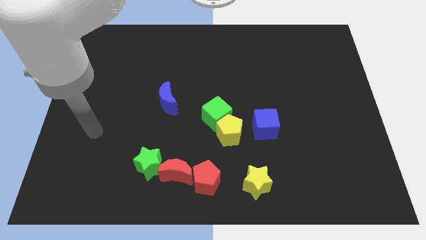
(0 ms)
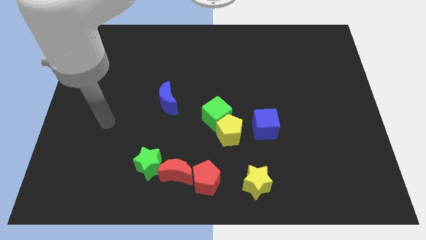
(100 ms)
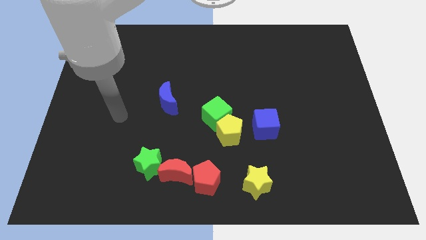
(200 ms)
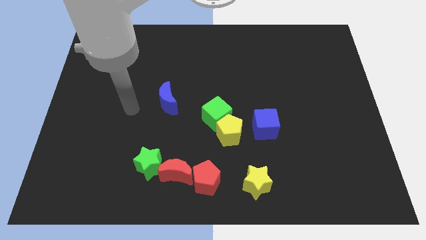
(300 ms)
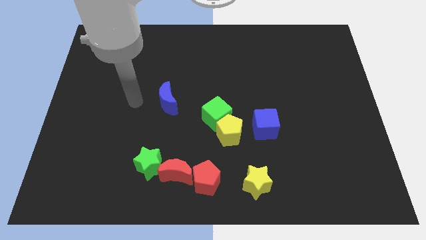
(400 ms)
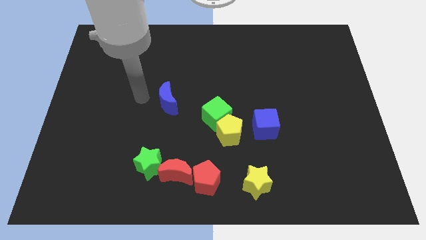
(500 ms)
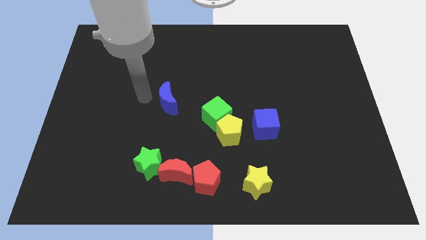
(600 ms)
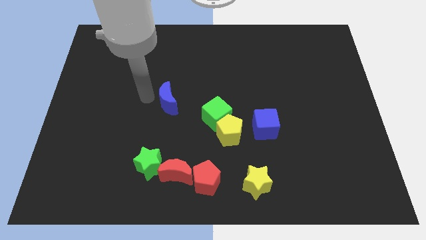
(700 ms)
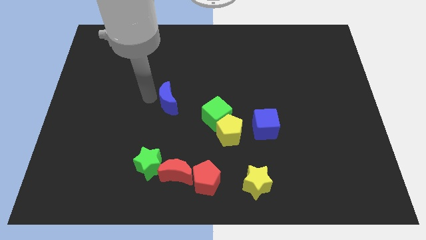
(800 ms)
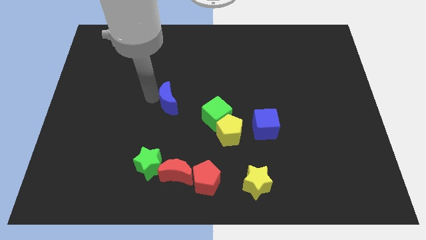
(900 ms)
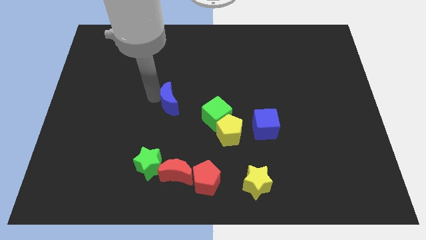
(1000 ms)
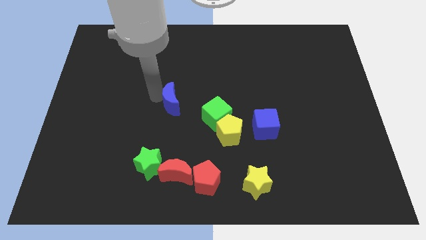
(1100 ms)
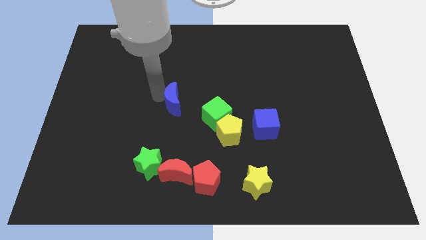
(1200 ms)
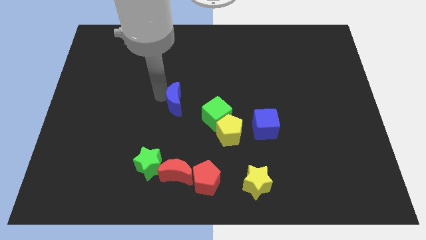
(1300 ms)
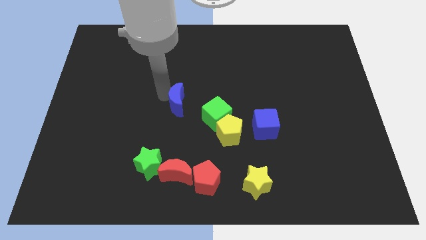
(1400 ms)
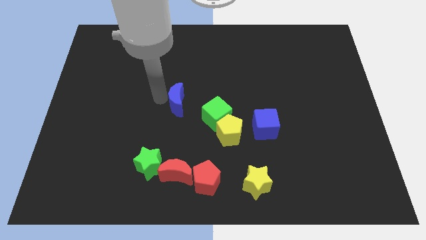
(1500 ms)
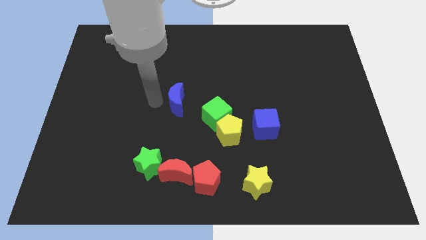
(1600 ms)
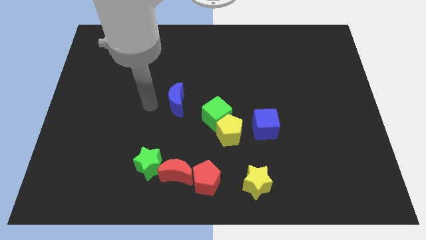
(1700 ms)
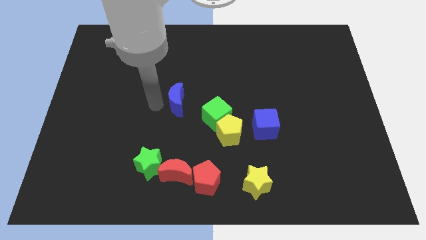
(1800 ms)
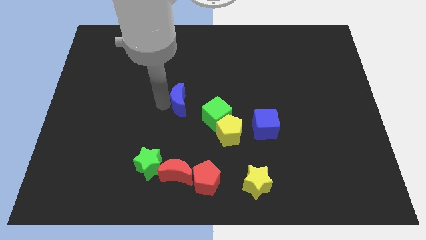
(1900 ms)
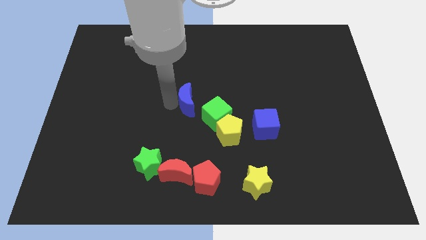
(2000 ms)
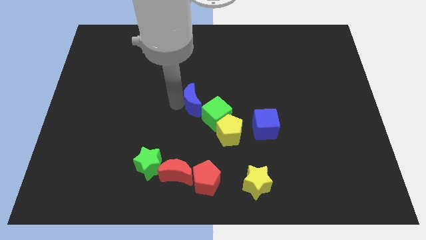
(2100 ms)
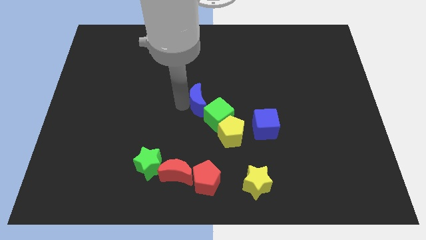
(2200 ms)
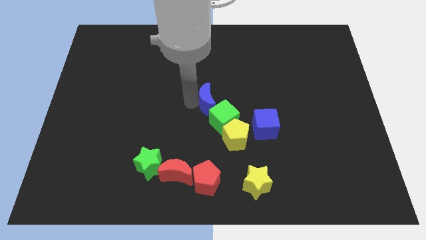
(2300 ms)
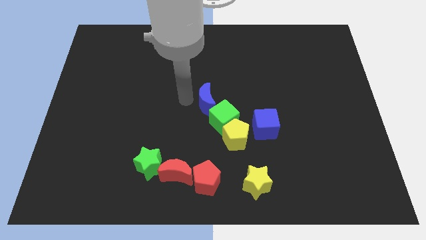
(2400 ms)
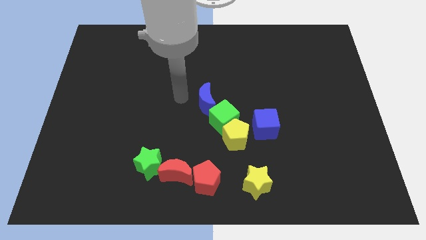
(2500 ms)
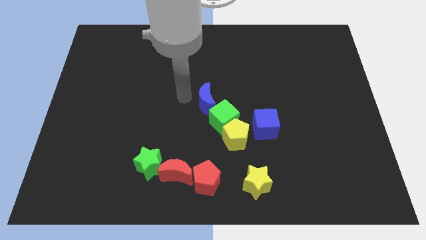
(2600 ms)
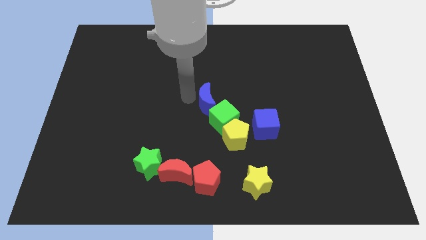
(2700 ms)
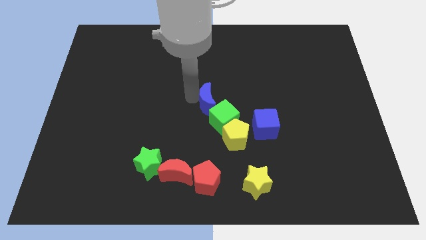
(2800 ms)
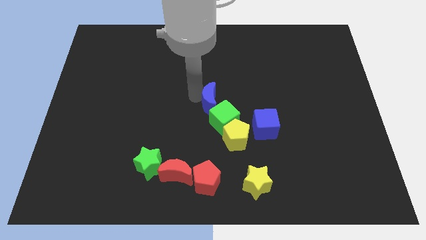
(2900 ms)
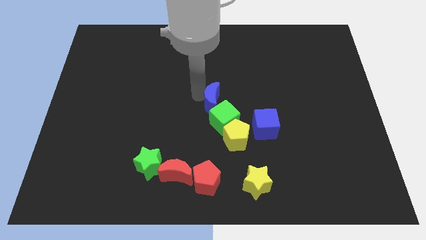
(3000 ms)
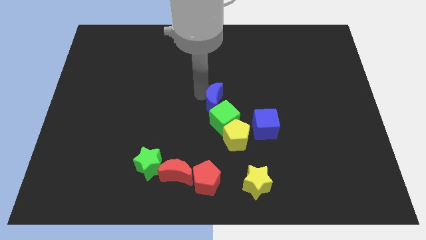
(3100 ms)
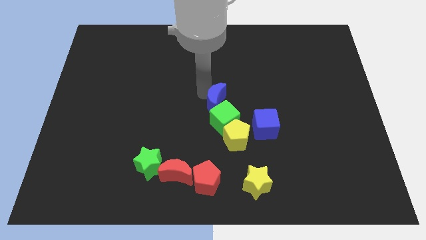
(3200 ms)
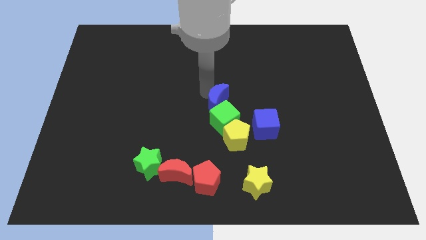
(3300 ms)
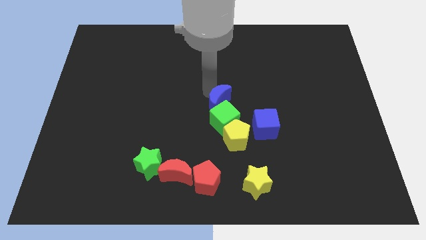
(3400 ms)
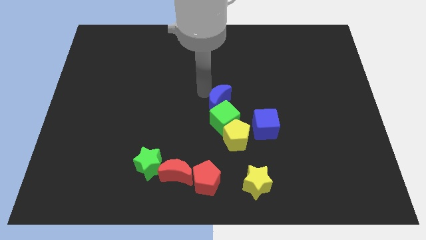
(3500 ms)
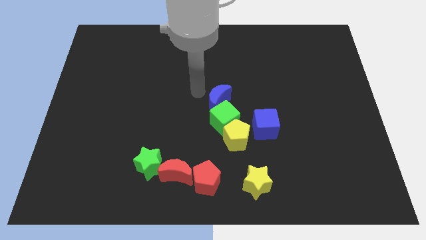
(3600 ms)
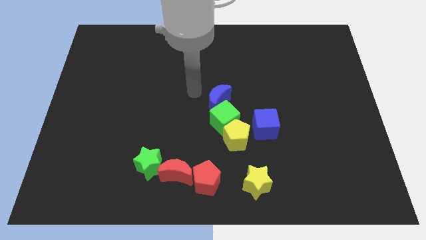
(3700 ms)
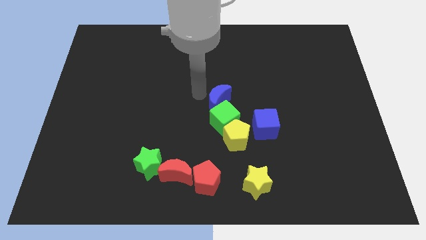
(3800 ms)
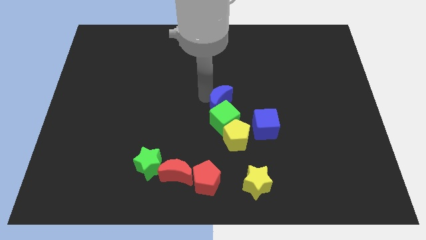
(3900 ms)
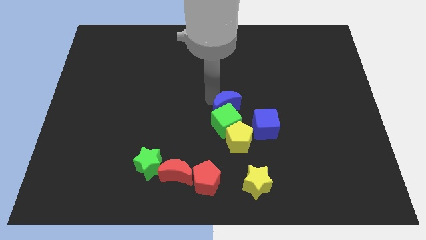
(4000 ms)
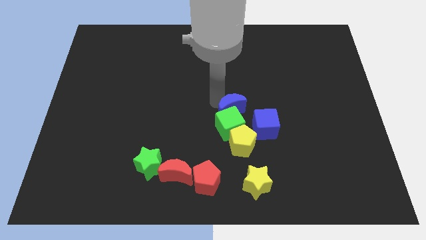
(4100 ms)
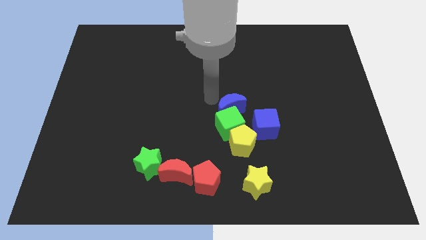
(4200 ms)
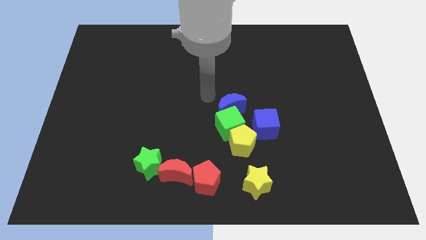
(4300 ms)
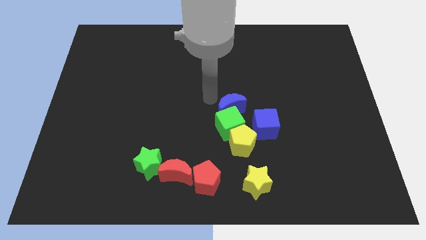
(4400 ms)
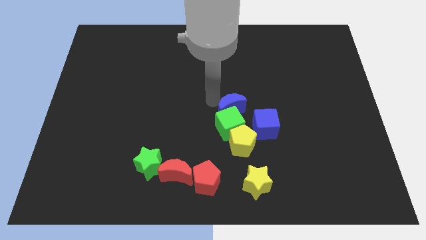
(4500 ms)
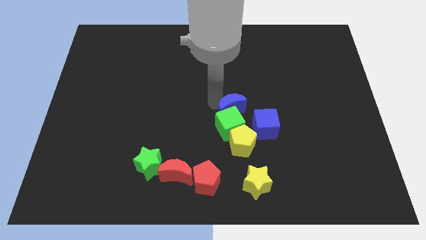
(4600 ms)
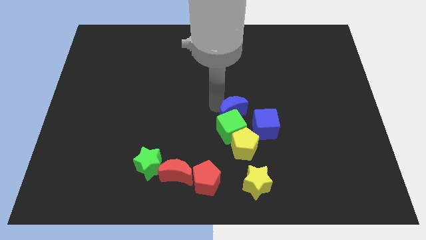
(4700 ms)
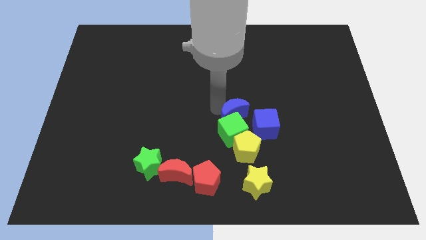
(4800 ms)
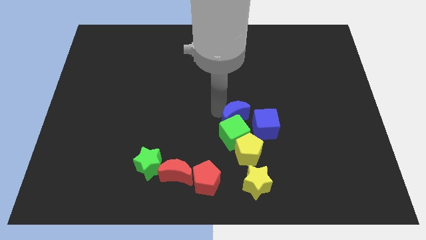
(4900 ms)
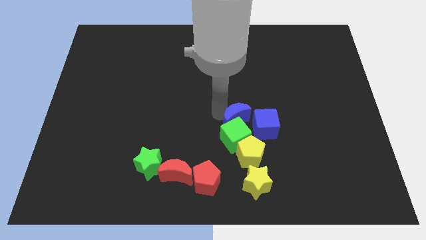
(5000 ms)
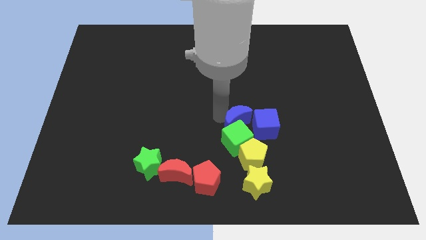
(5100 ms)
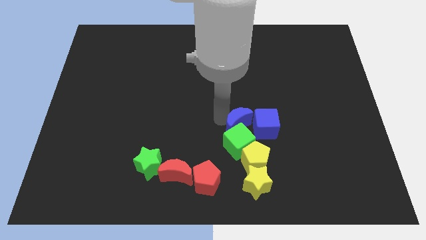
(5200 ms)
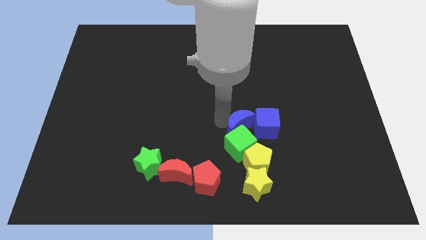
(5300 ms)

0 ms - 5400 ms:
put the blue moon to the blue cube
